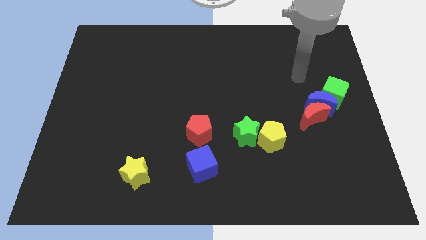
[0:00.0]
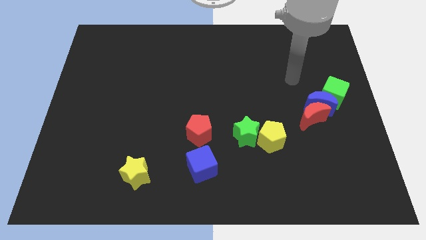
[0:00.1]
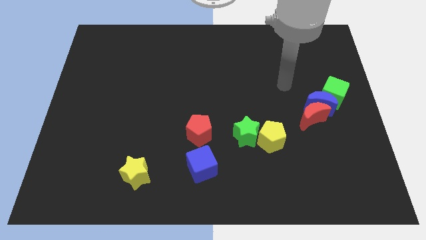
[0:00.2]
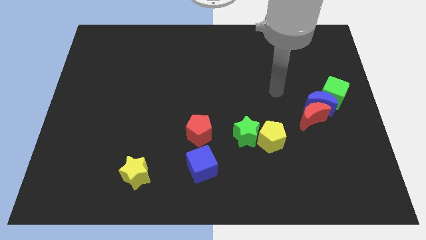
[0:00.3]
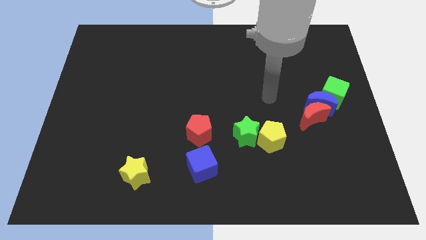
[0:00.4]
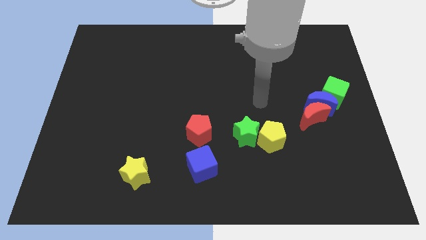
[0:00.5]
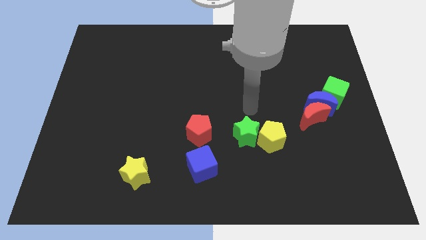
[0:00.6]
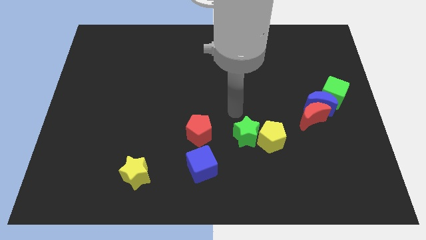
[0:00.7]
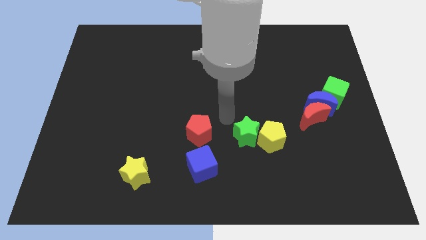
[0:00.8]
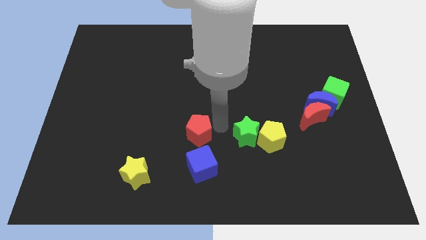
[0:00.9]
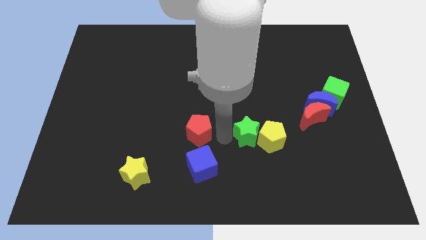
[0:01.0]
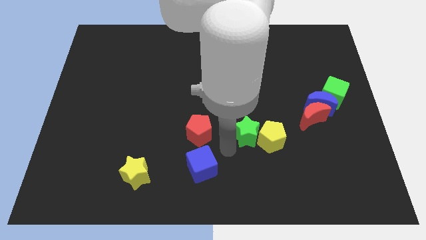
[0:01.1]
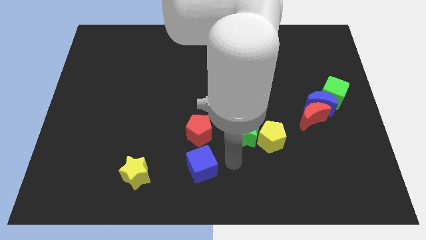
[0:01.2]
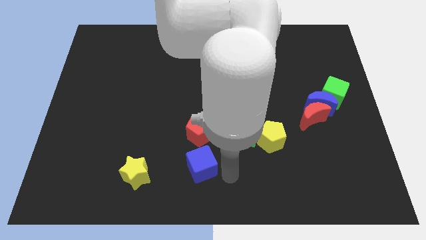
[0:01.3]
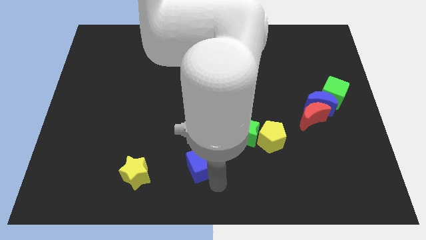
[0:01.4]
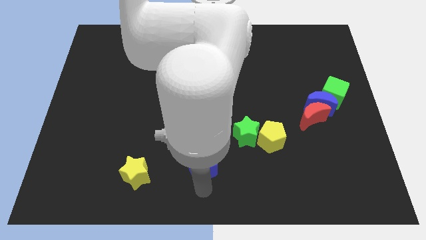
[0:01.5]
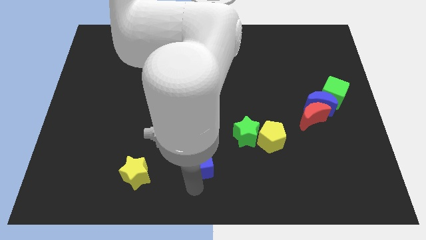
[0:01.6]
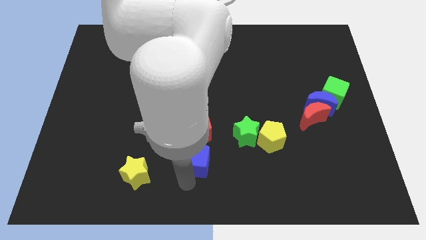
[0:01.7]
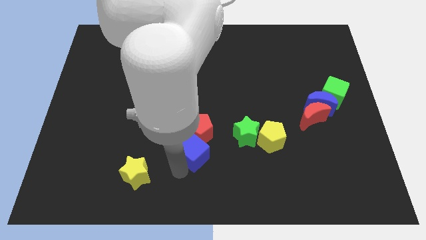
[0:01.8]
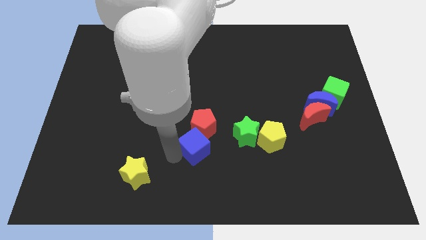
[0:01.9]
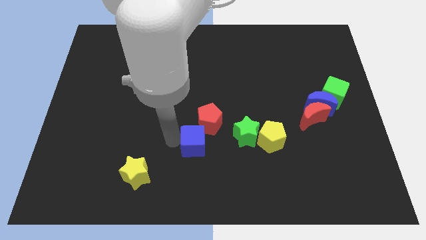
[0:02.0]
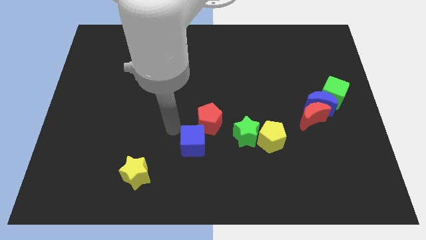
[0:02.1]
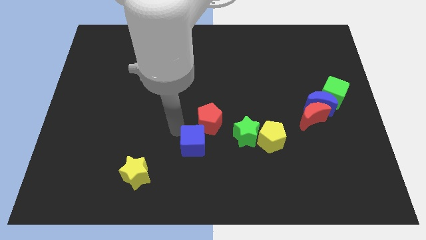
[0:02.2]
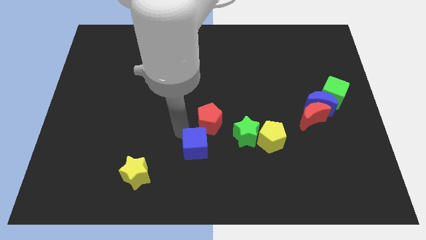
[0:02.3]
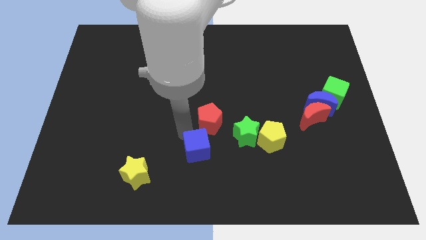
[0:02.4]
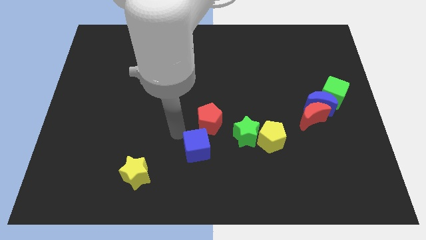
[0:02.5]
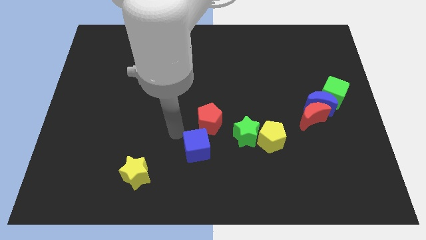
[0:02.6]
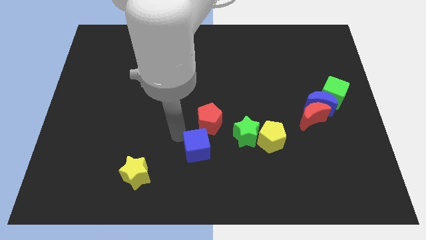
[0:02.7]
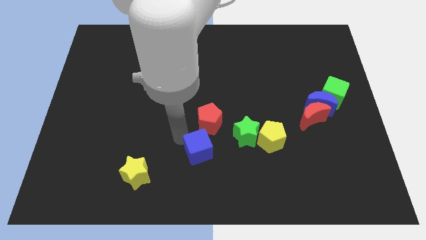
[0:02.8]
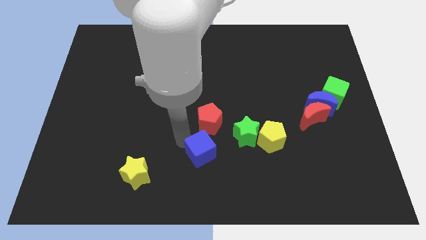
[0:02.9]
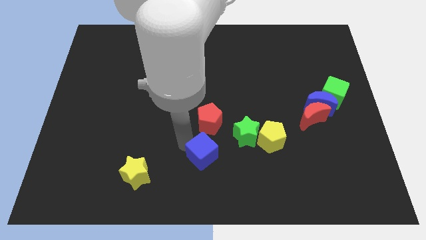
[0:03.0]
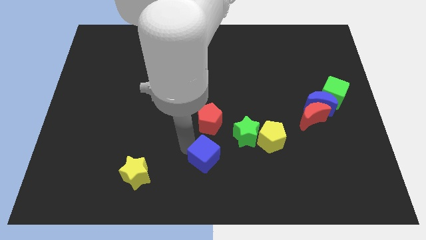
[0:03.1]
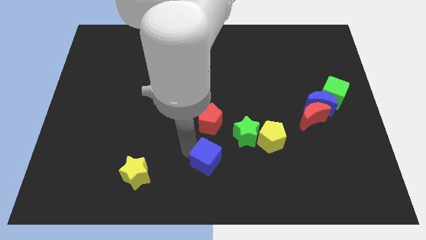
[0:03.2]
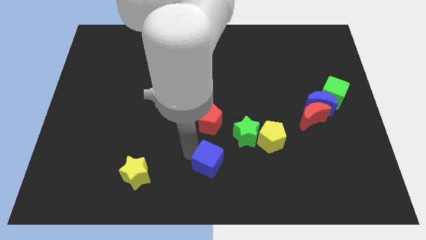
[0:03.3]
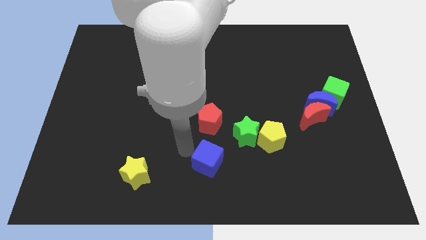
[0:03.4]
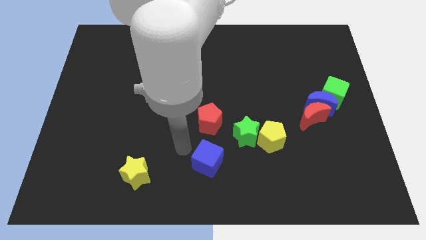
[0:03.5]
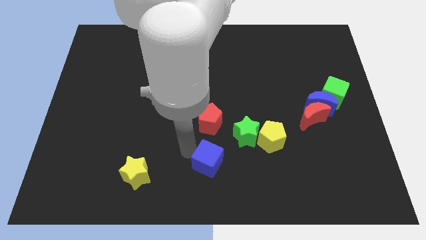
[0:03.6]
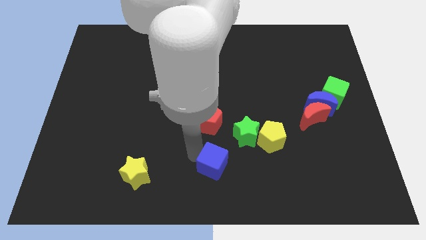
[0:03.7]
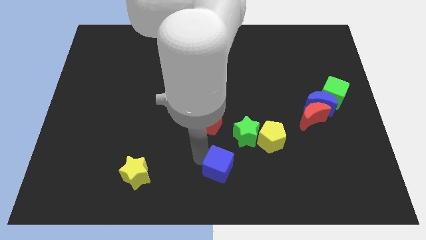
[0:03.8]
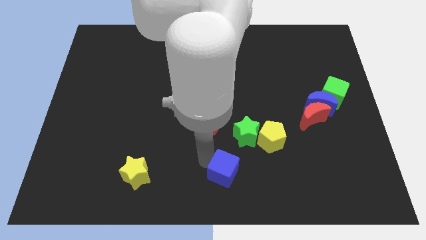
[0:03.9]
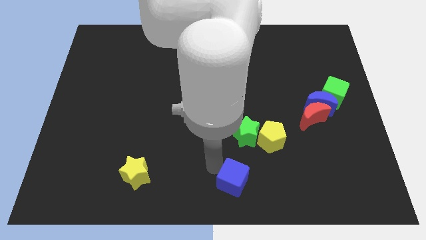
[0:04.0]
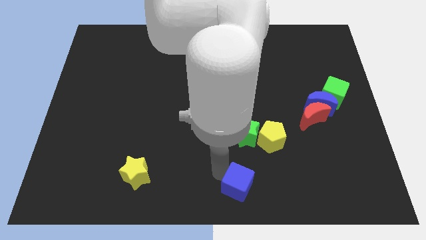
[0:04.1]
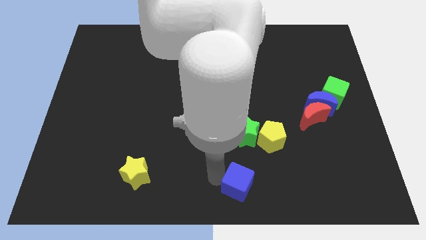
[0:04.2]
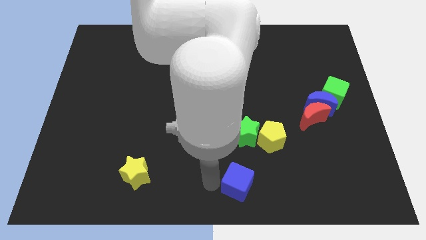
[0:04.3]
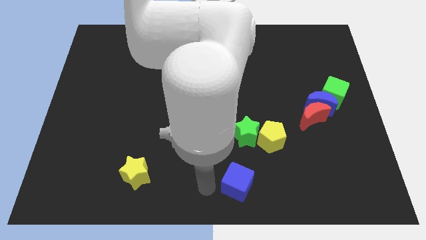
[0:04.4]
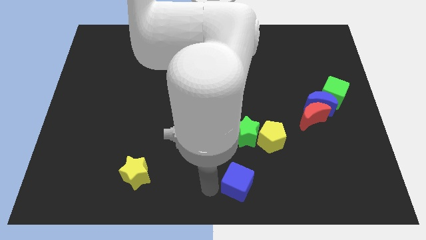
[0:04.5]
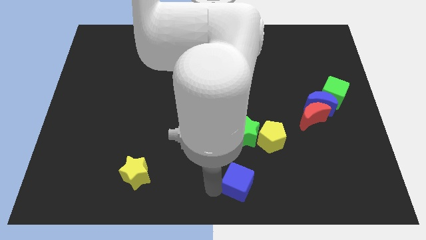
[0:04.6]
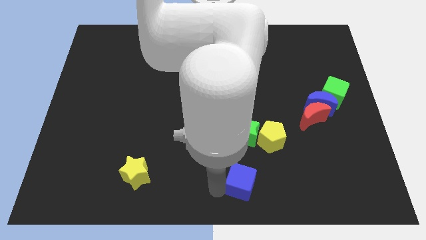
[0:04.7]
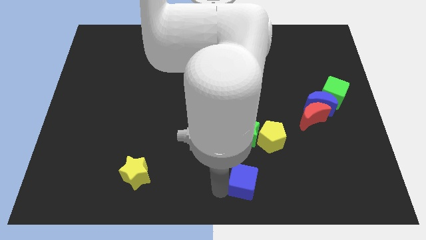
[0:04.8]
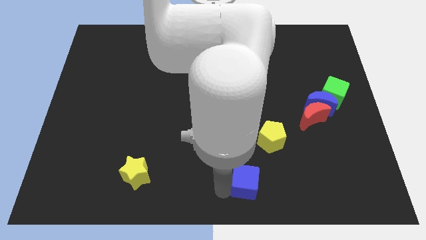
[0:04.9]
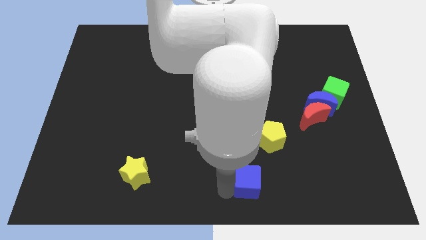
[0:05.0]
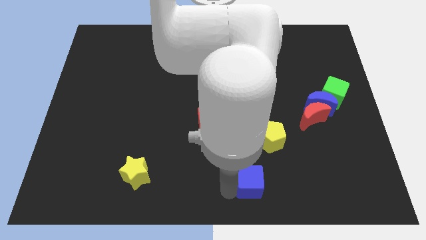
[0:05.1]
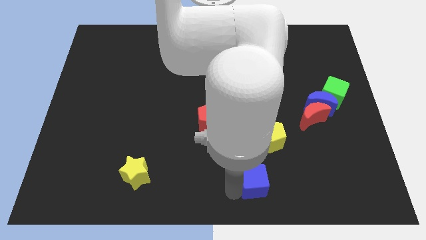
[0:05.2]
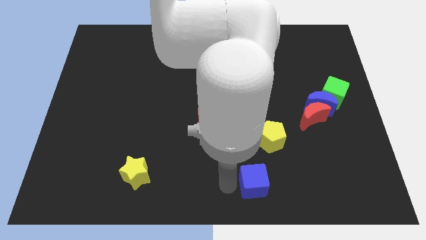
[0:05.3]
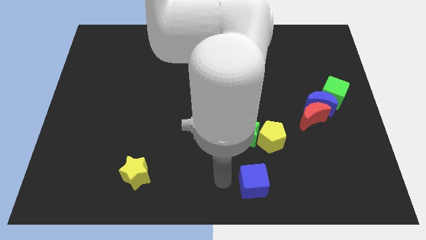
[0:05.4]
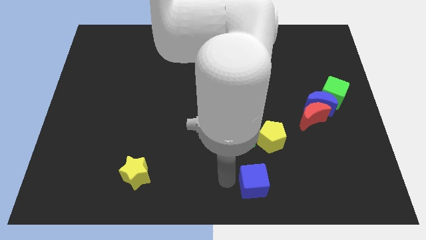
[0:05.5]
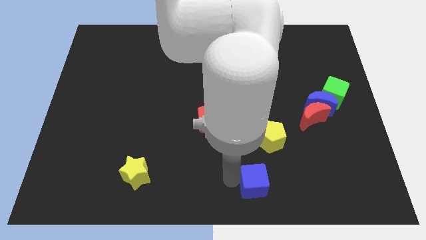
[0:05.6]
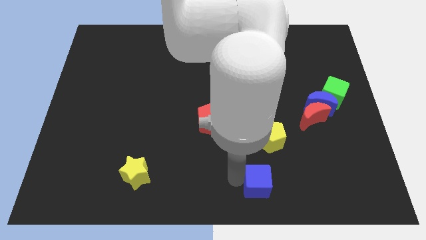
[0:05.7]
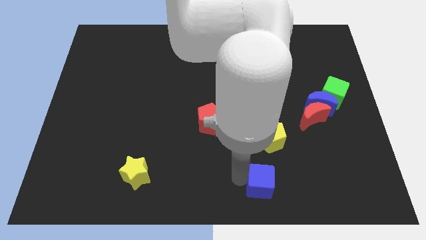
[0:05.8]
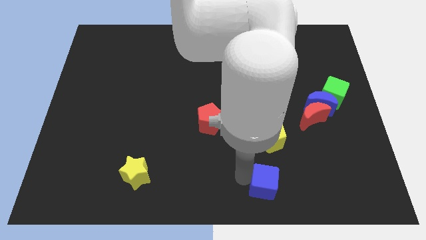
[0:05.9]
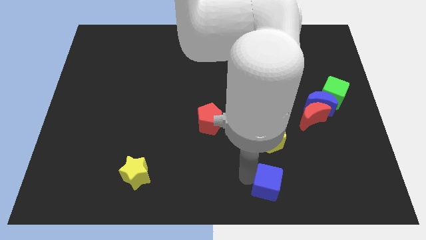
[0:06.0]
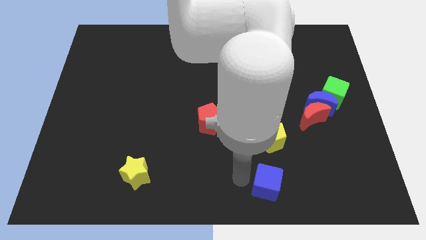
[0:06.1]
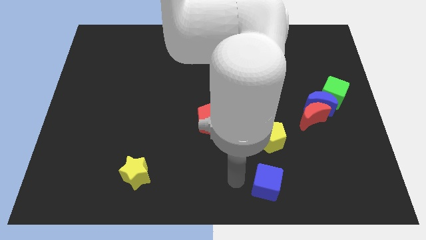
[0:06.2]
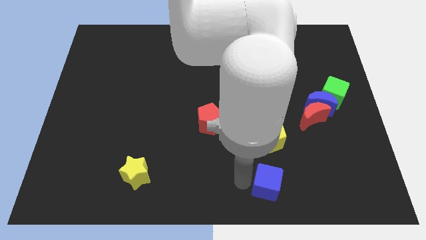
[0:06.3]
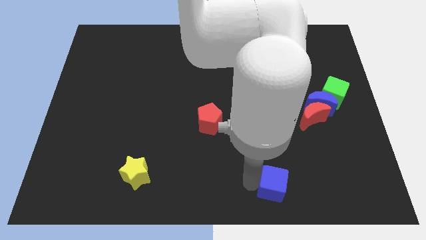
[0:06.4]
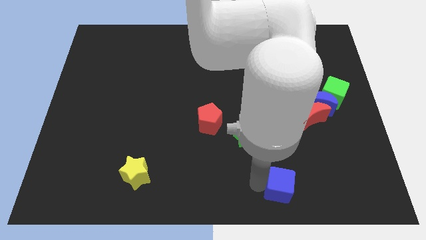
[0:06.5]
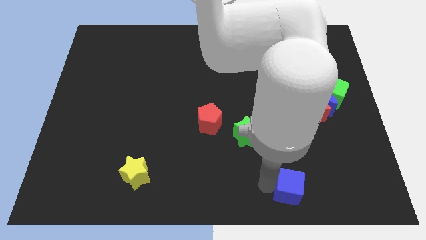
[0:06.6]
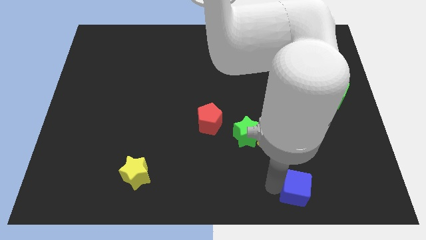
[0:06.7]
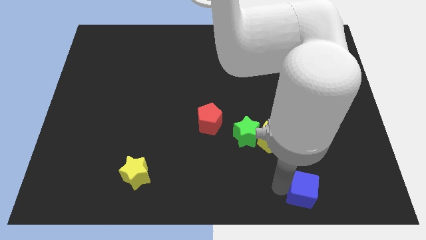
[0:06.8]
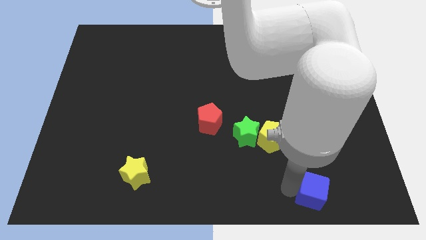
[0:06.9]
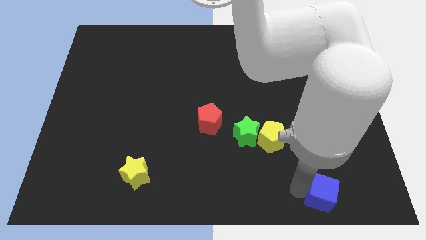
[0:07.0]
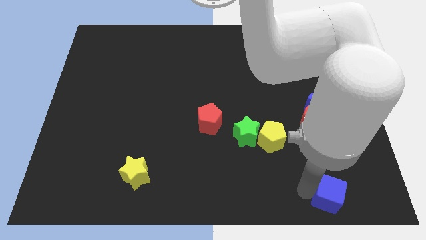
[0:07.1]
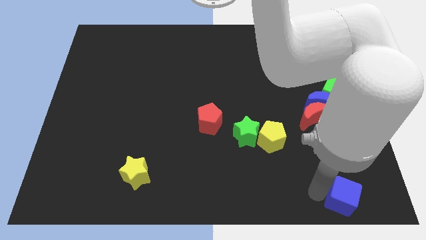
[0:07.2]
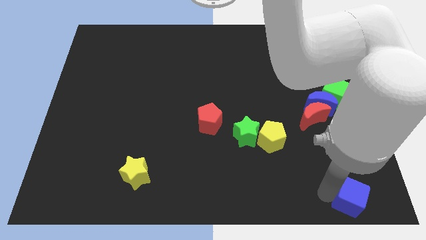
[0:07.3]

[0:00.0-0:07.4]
put the blue cube to the lower right corner
